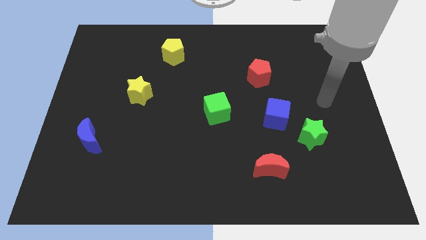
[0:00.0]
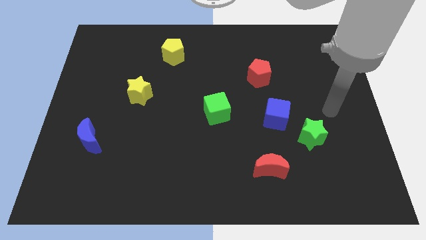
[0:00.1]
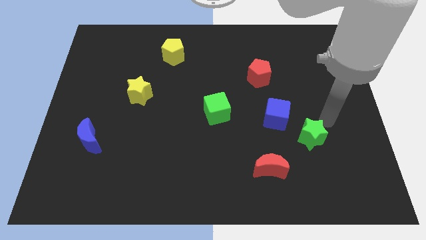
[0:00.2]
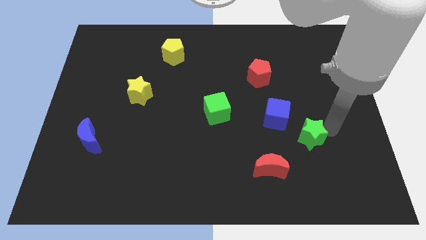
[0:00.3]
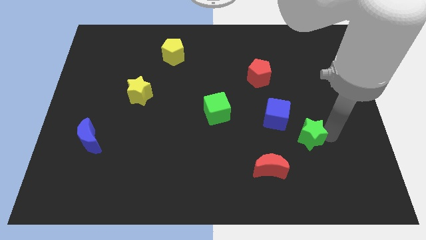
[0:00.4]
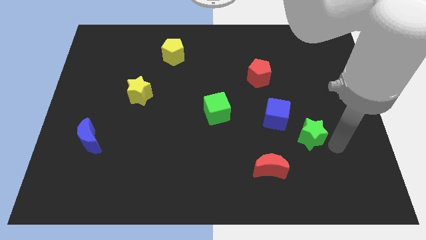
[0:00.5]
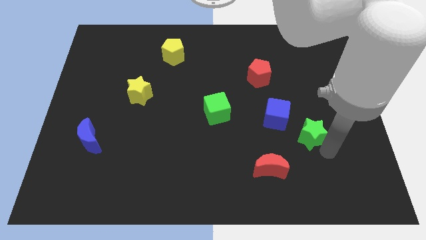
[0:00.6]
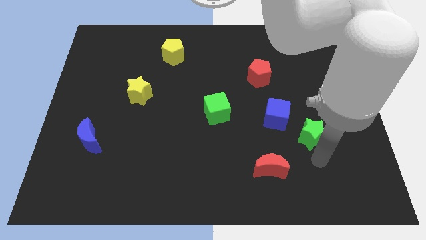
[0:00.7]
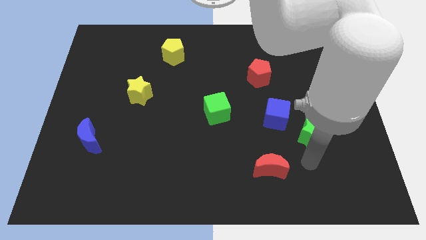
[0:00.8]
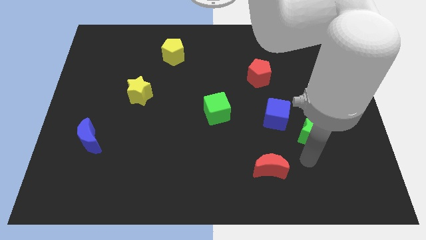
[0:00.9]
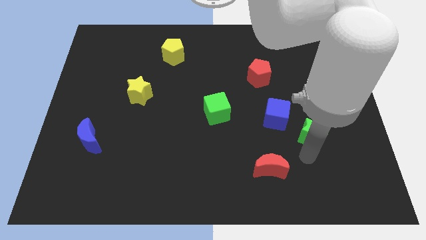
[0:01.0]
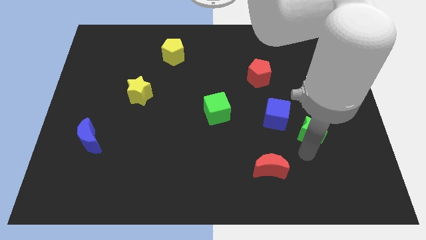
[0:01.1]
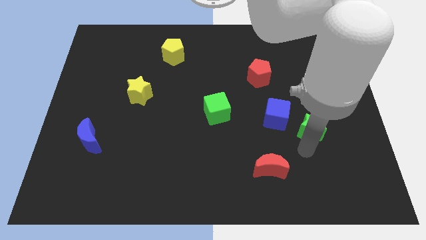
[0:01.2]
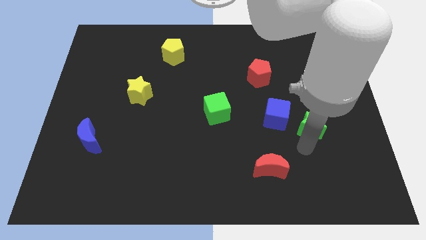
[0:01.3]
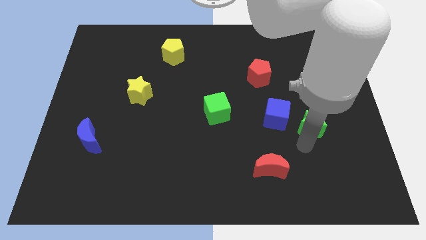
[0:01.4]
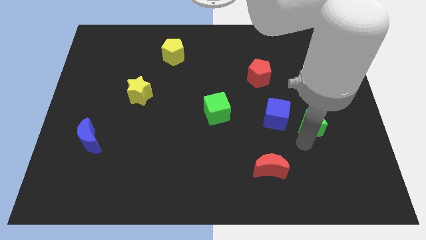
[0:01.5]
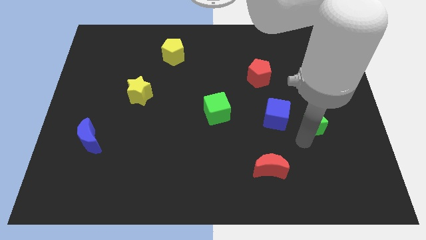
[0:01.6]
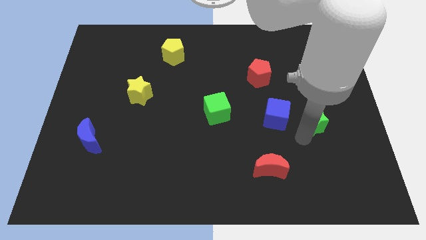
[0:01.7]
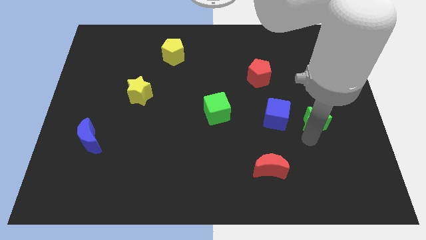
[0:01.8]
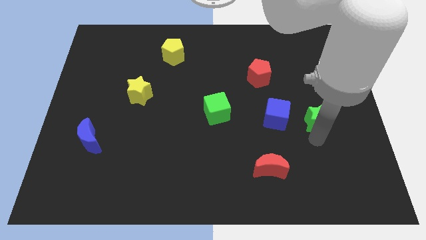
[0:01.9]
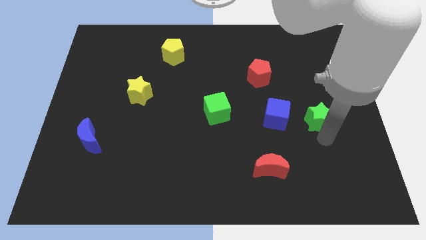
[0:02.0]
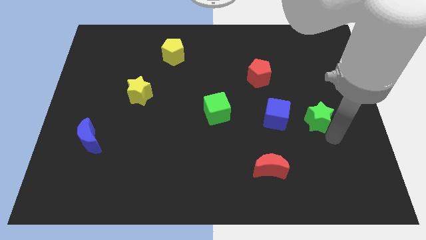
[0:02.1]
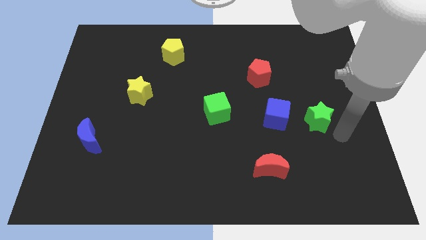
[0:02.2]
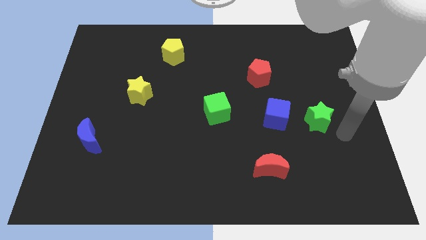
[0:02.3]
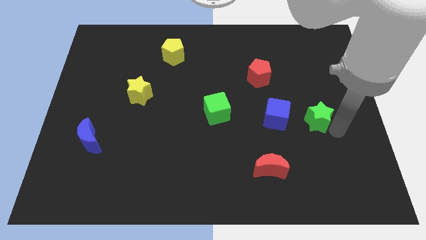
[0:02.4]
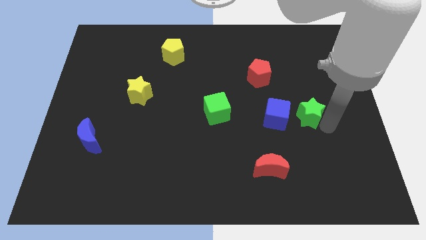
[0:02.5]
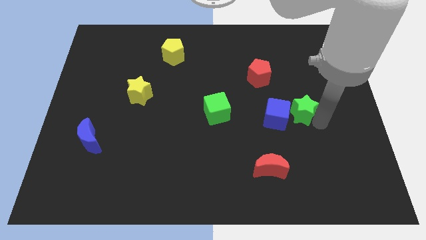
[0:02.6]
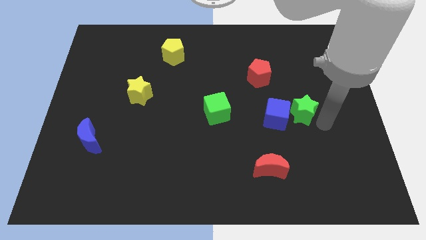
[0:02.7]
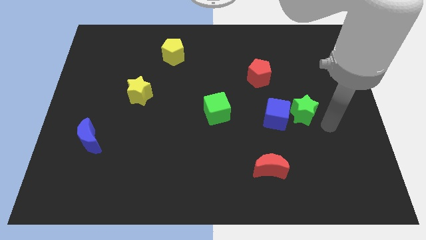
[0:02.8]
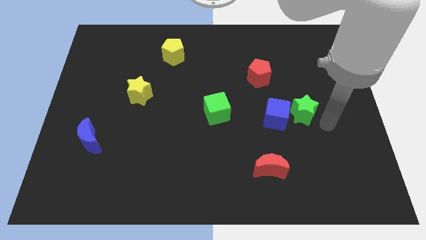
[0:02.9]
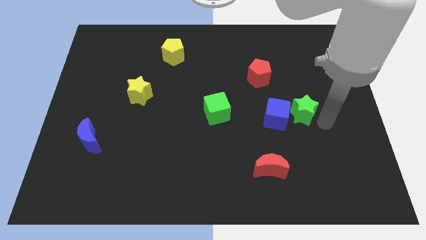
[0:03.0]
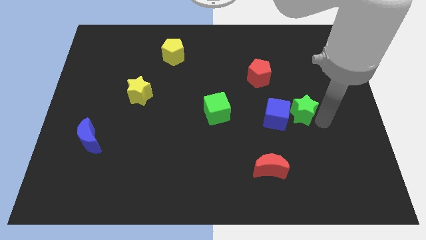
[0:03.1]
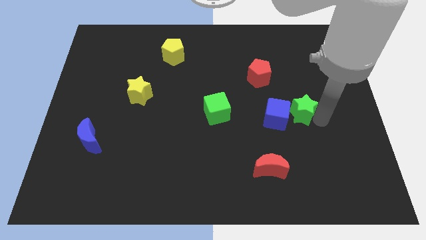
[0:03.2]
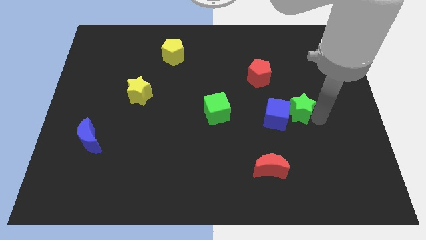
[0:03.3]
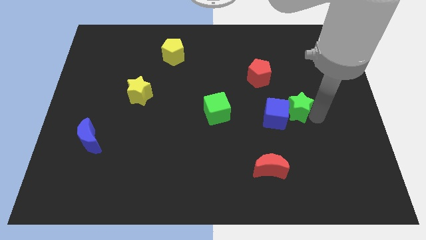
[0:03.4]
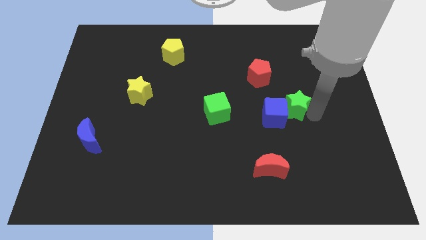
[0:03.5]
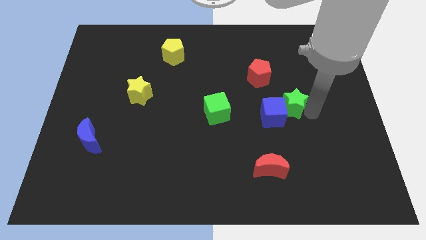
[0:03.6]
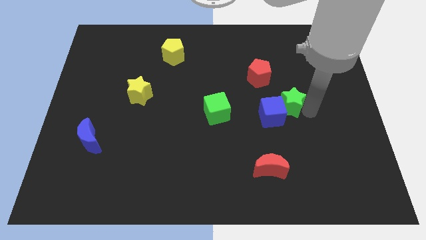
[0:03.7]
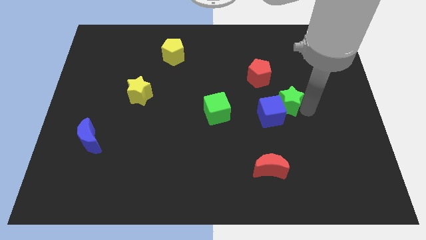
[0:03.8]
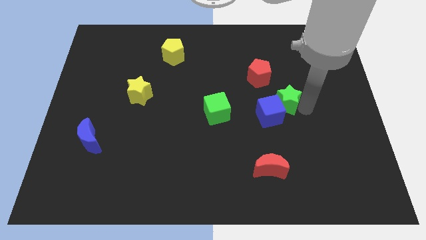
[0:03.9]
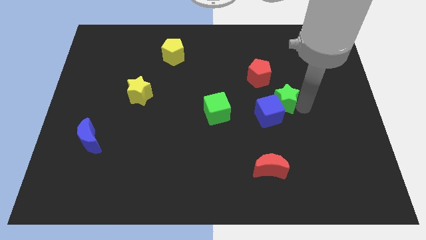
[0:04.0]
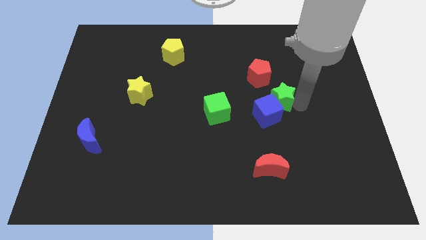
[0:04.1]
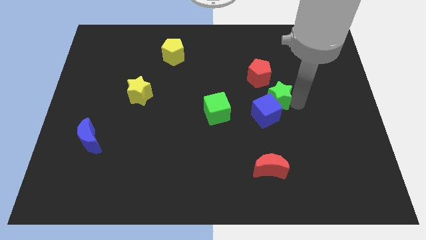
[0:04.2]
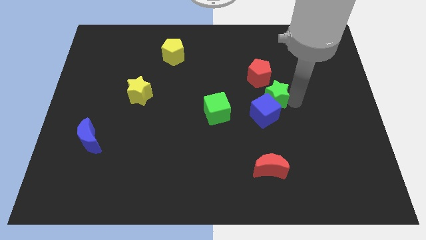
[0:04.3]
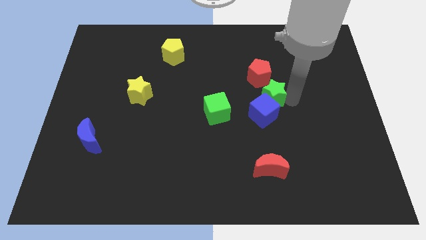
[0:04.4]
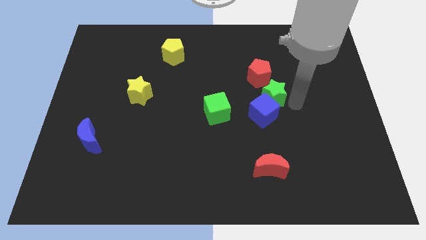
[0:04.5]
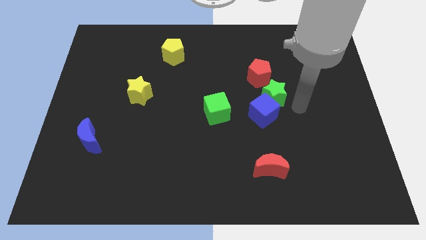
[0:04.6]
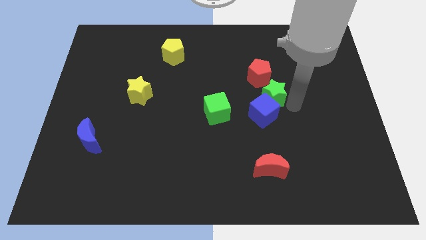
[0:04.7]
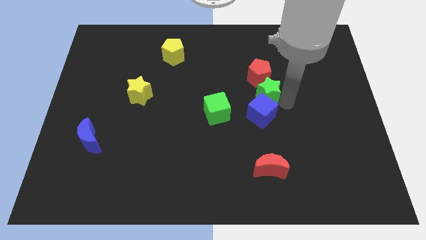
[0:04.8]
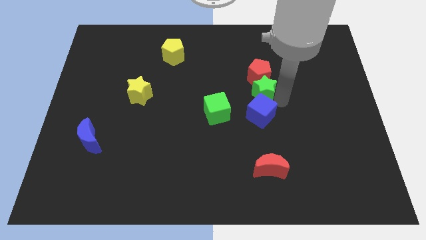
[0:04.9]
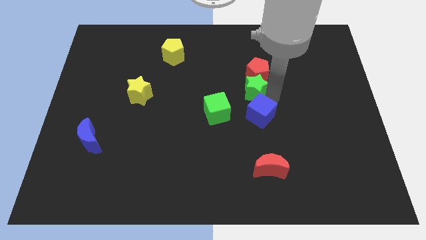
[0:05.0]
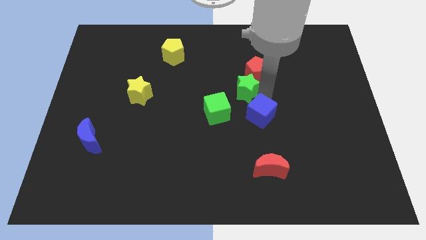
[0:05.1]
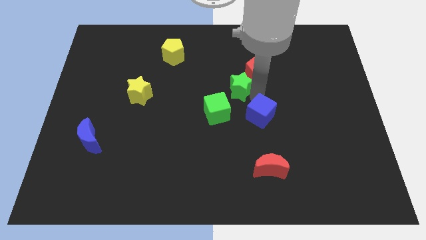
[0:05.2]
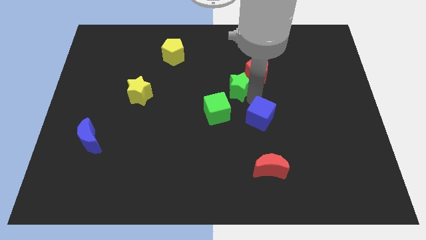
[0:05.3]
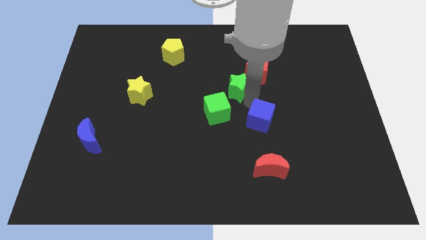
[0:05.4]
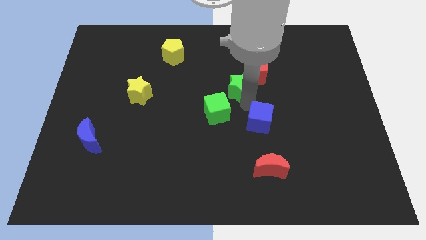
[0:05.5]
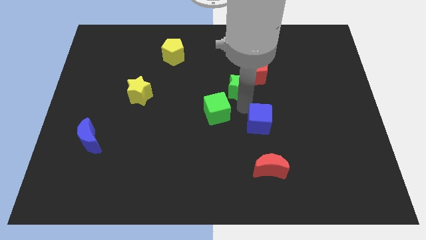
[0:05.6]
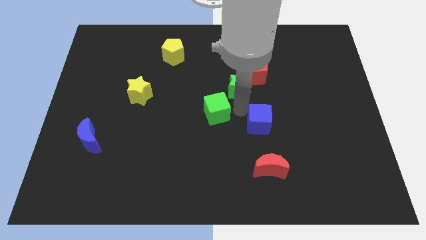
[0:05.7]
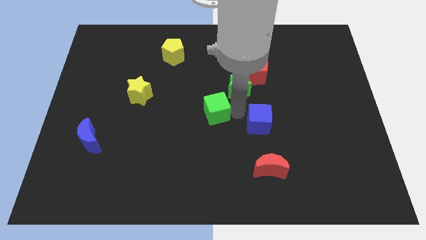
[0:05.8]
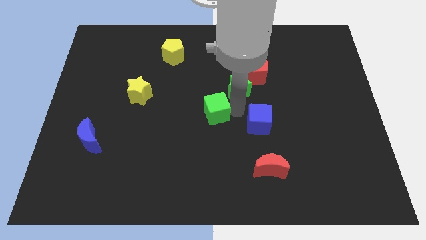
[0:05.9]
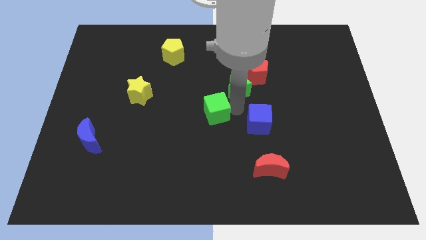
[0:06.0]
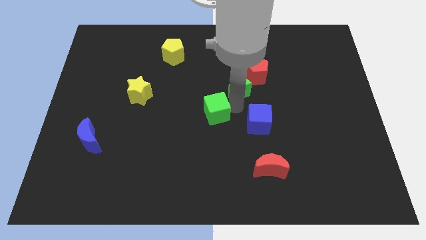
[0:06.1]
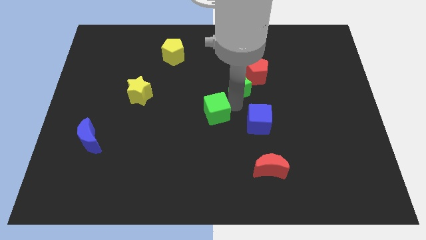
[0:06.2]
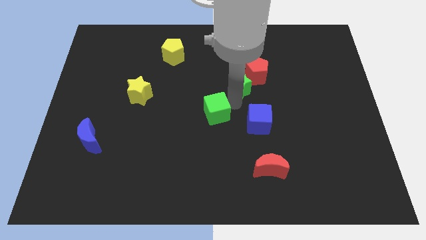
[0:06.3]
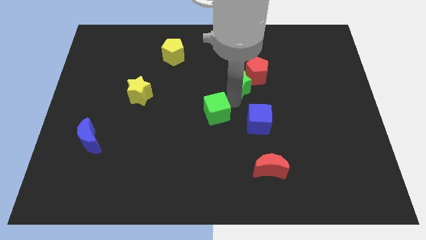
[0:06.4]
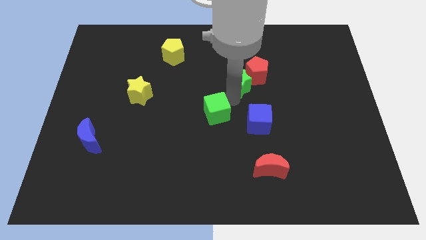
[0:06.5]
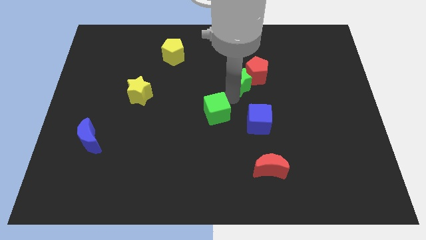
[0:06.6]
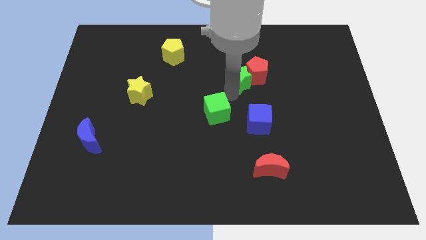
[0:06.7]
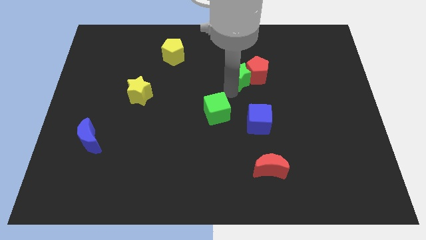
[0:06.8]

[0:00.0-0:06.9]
slide the green star diagonally up and to the left of the red pentagon

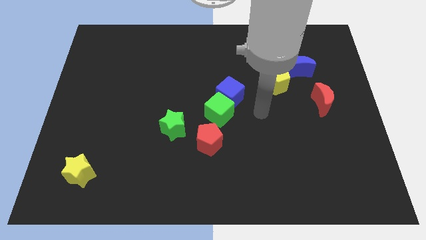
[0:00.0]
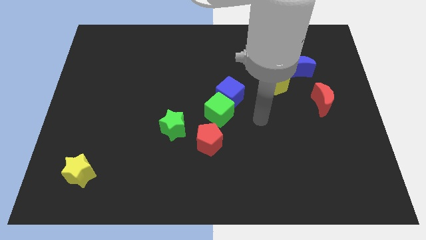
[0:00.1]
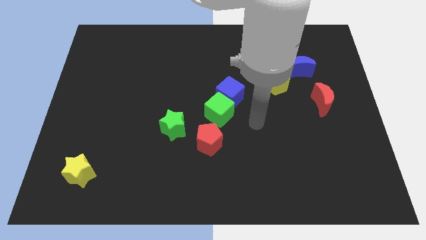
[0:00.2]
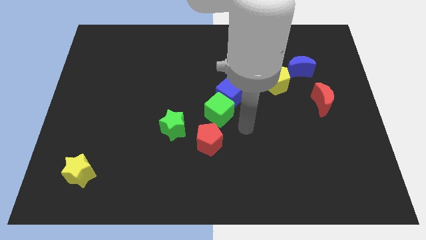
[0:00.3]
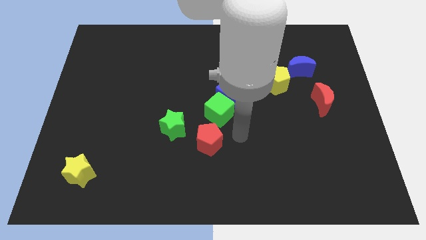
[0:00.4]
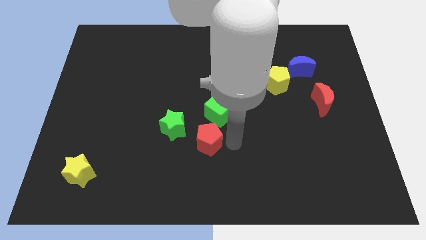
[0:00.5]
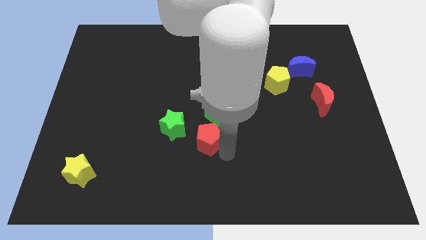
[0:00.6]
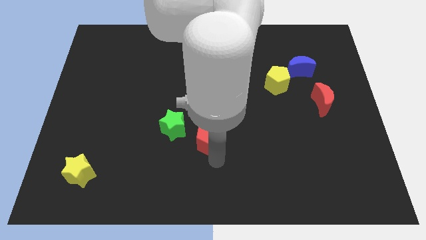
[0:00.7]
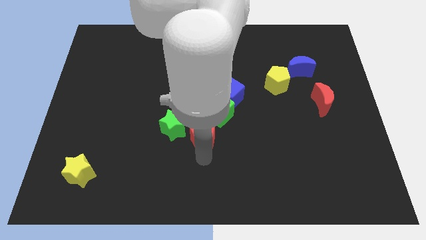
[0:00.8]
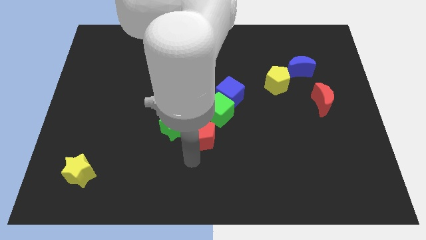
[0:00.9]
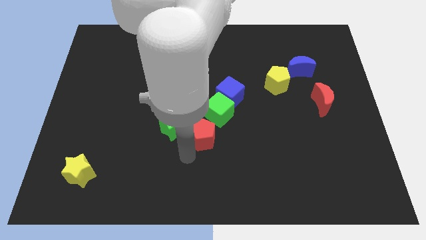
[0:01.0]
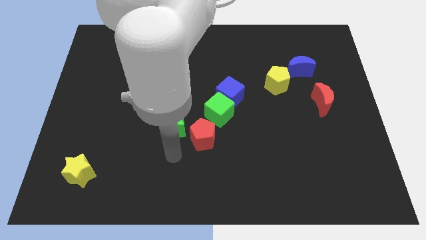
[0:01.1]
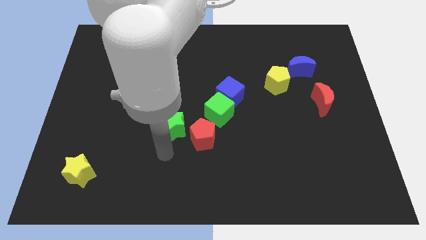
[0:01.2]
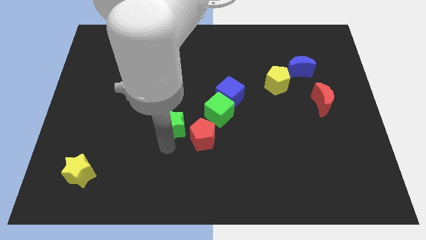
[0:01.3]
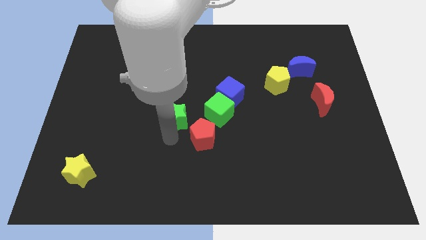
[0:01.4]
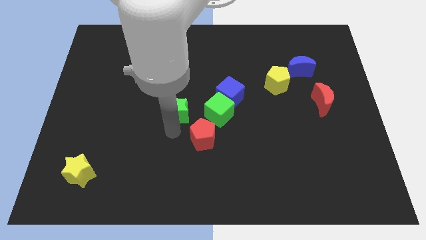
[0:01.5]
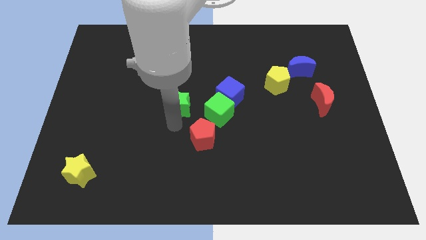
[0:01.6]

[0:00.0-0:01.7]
put the green star to the left side of the blue cube
